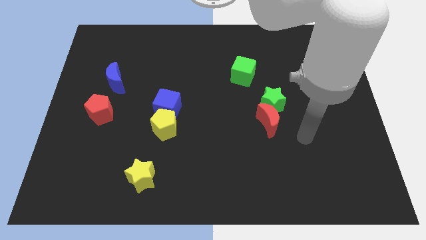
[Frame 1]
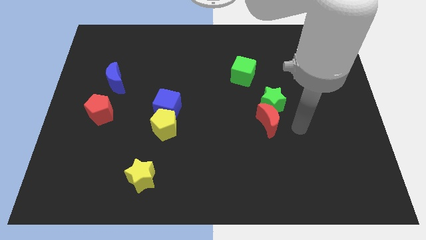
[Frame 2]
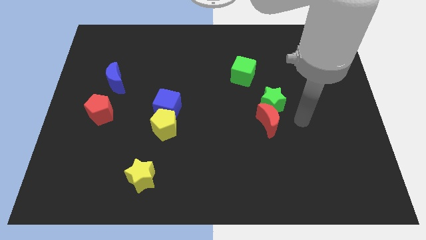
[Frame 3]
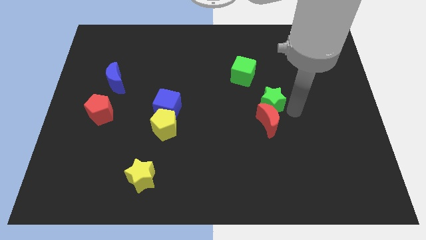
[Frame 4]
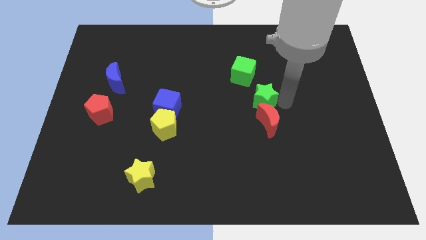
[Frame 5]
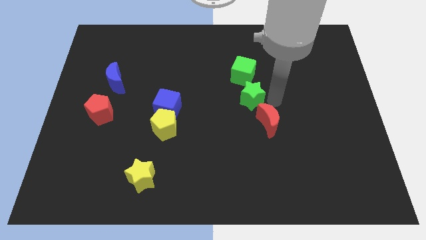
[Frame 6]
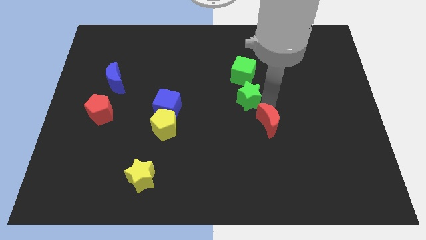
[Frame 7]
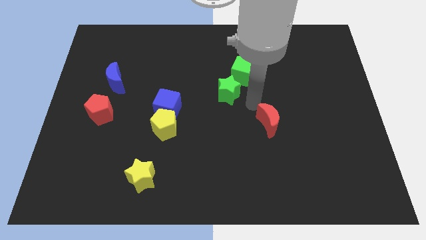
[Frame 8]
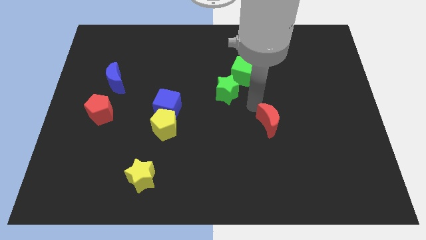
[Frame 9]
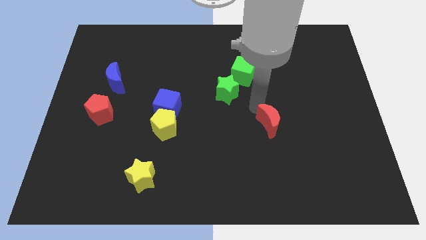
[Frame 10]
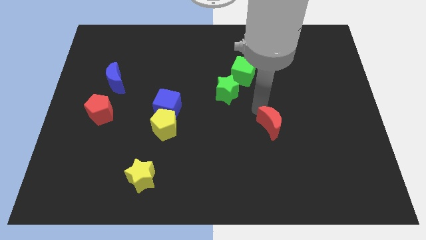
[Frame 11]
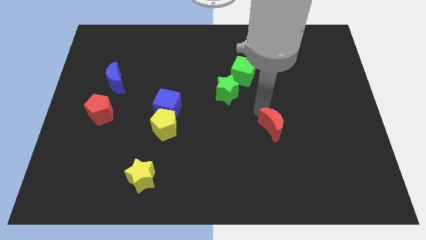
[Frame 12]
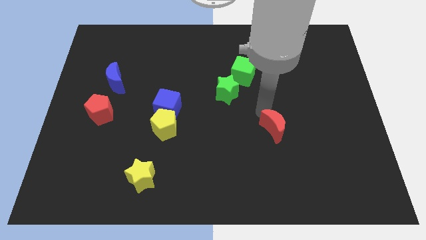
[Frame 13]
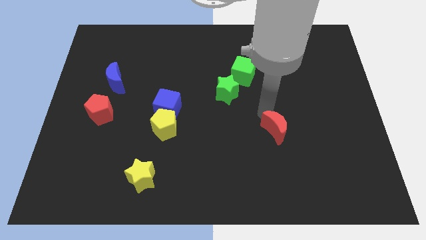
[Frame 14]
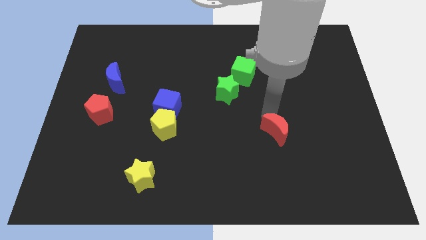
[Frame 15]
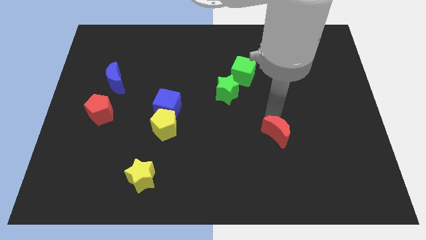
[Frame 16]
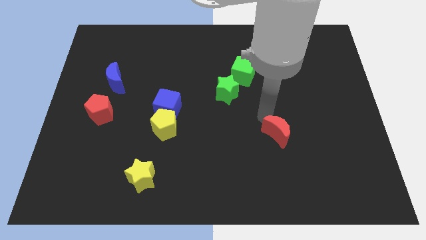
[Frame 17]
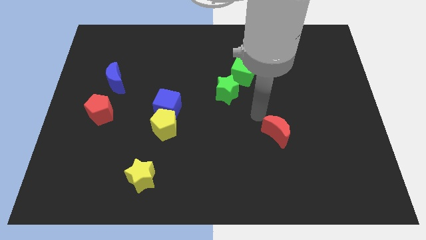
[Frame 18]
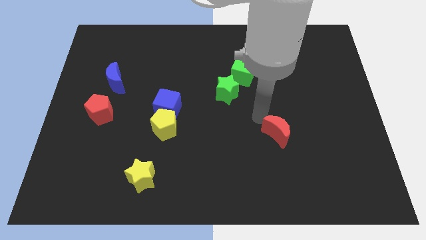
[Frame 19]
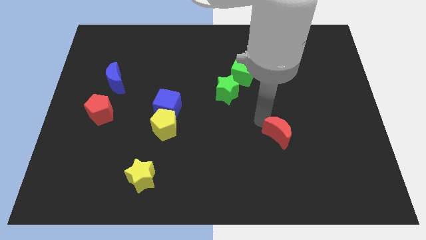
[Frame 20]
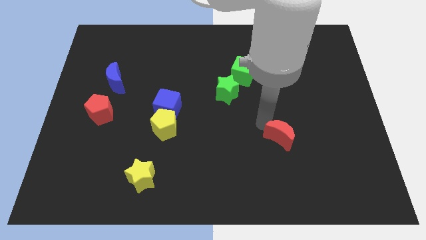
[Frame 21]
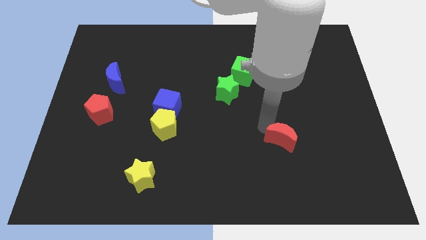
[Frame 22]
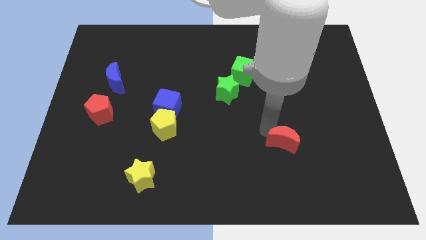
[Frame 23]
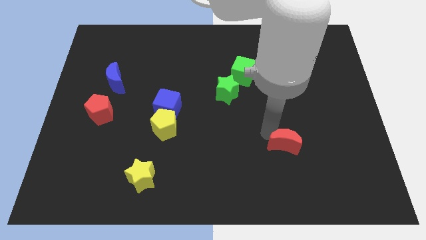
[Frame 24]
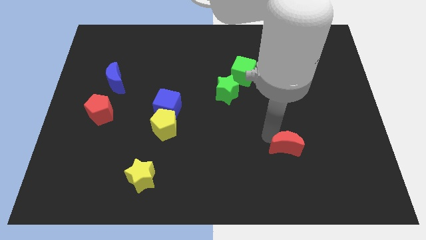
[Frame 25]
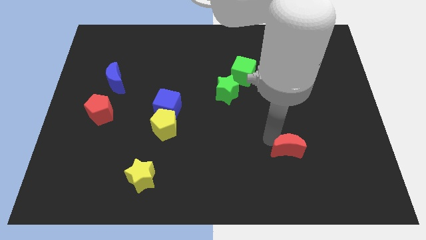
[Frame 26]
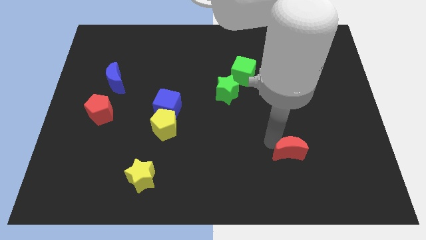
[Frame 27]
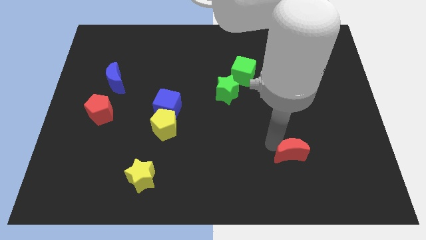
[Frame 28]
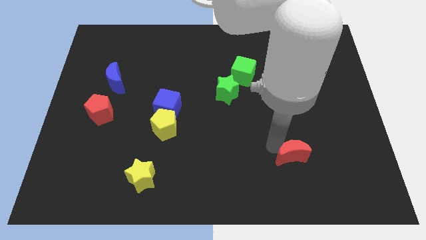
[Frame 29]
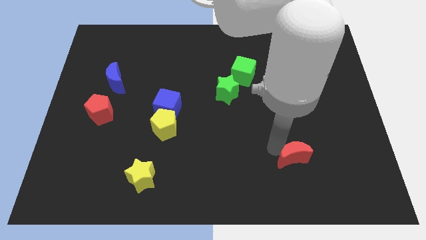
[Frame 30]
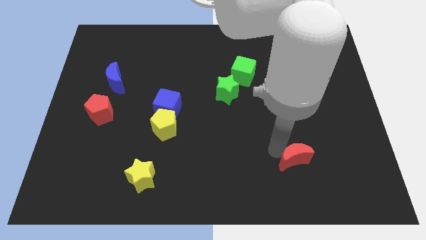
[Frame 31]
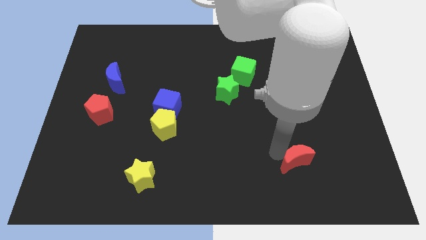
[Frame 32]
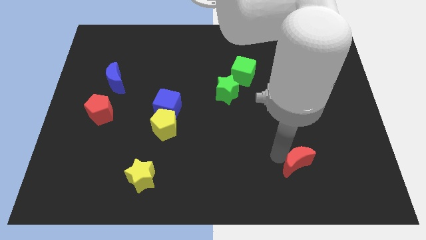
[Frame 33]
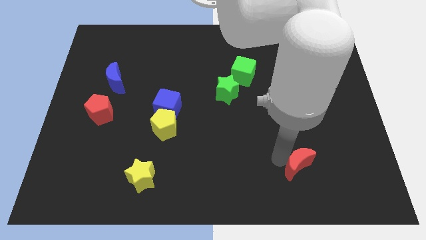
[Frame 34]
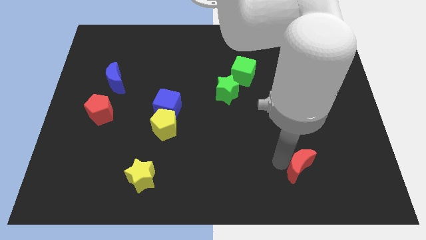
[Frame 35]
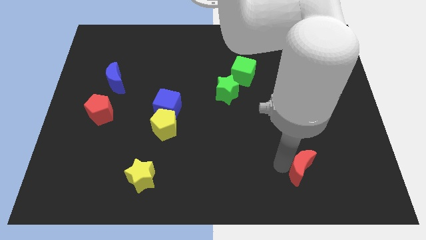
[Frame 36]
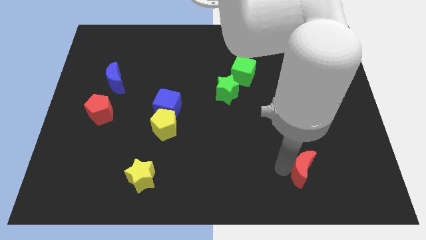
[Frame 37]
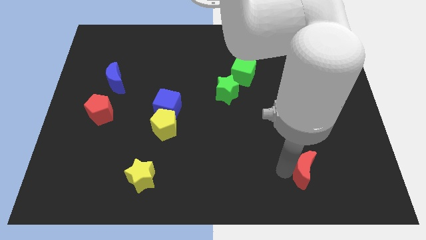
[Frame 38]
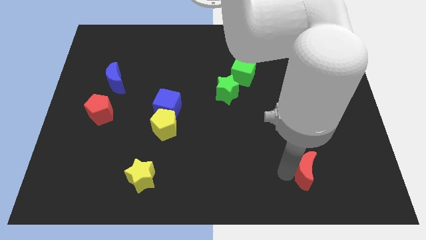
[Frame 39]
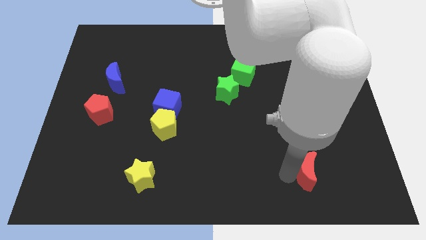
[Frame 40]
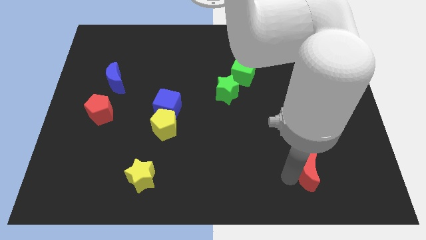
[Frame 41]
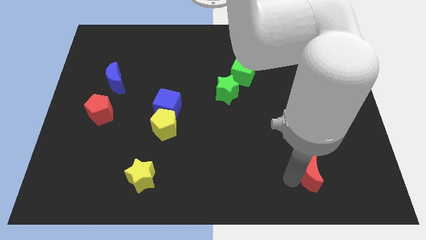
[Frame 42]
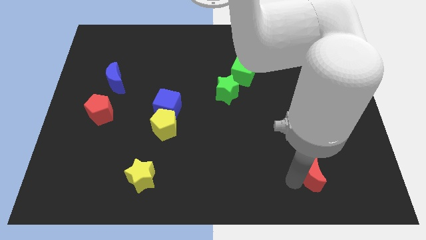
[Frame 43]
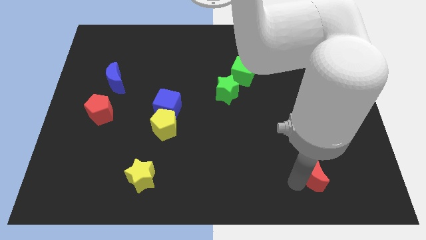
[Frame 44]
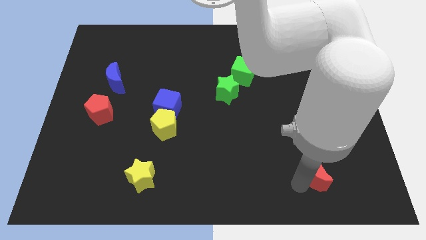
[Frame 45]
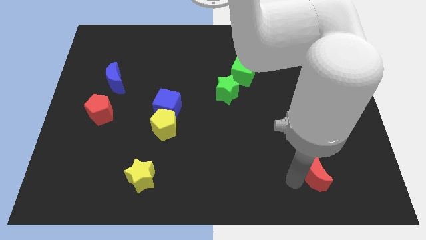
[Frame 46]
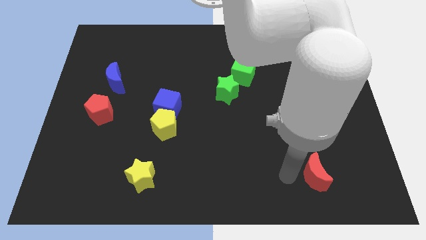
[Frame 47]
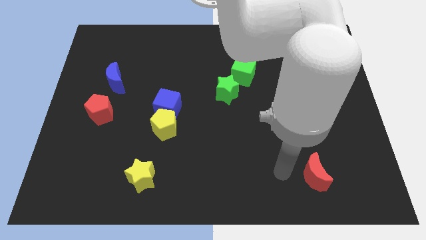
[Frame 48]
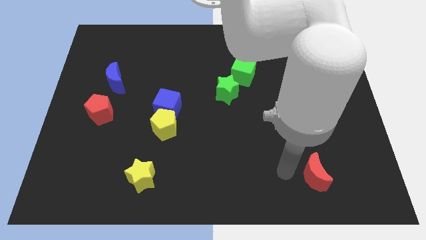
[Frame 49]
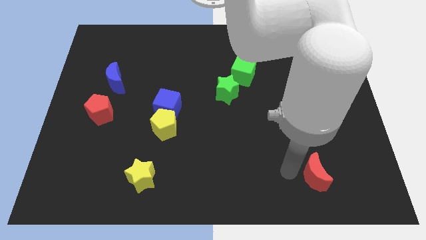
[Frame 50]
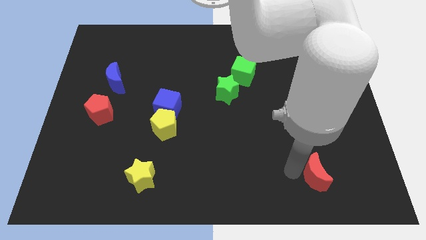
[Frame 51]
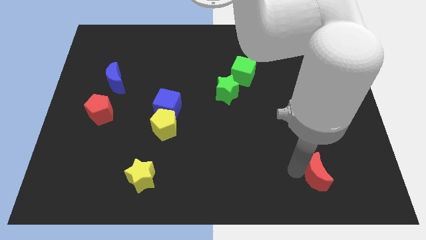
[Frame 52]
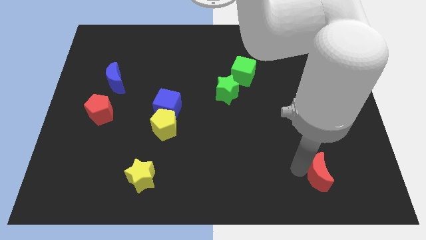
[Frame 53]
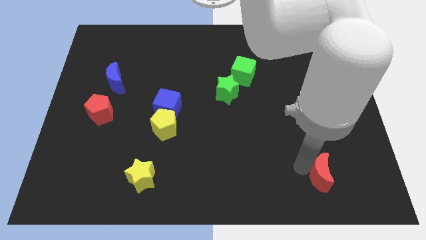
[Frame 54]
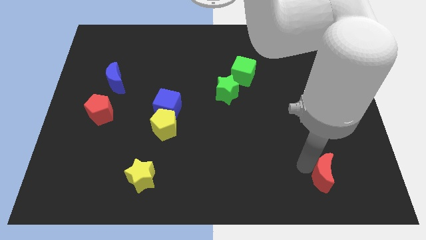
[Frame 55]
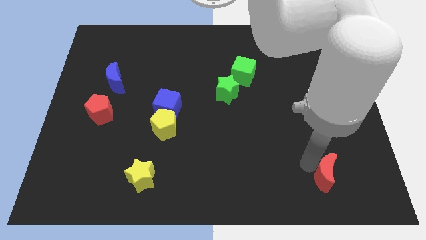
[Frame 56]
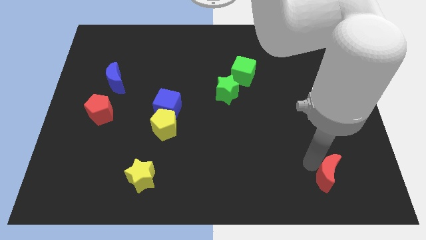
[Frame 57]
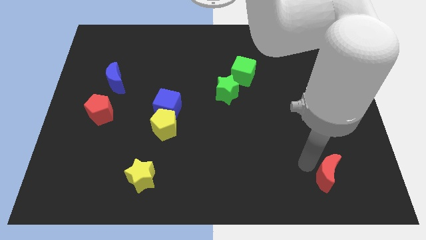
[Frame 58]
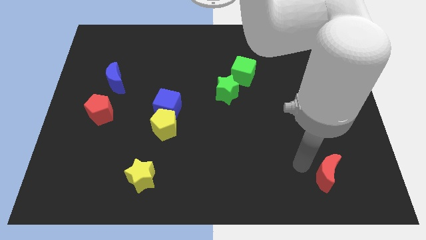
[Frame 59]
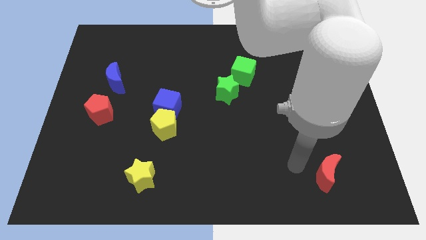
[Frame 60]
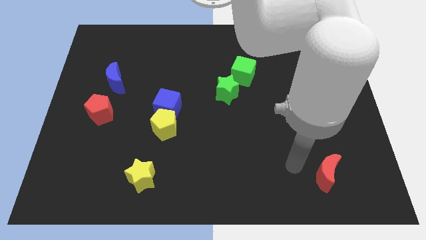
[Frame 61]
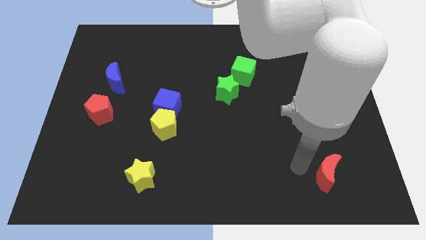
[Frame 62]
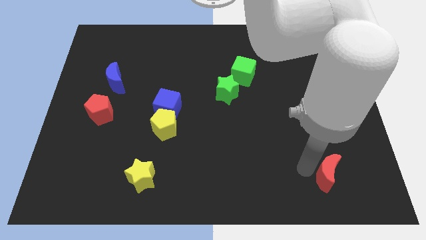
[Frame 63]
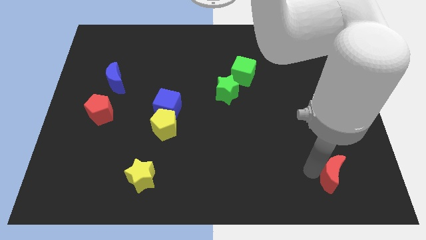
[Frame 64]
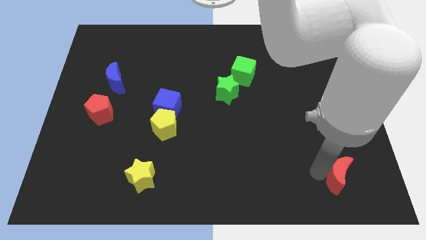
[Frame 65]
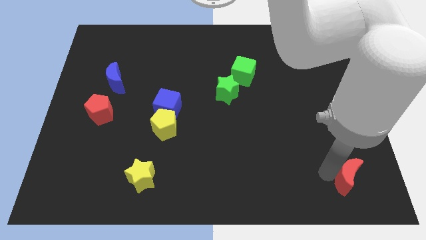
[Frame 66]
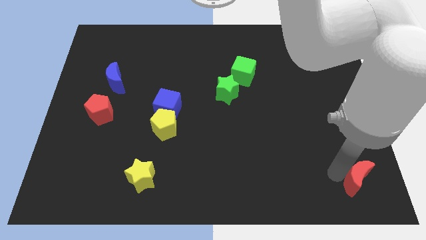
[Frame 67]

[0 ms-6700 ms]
put the red moon to the bottom right

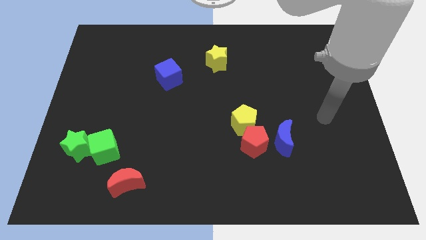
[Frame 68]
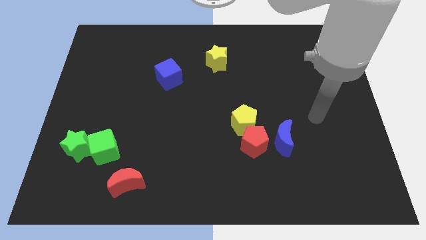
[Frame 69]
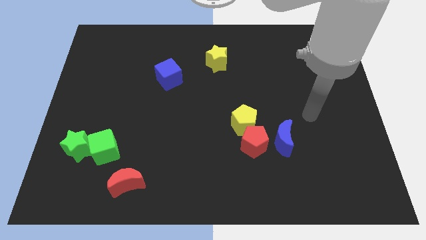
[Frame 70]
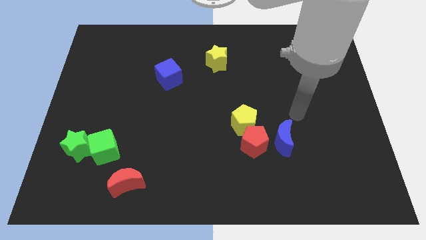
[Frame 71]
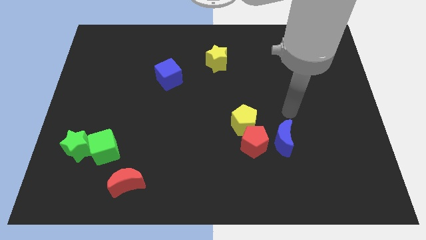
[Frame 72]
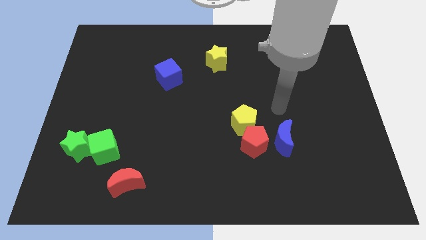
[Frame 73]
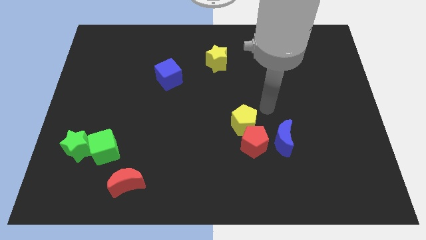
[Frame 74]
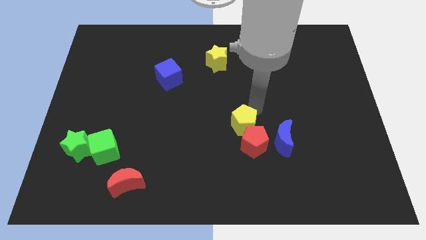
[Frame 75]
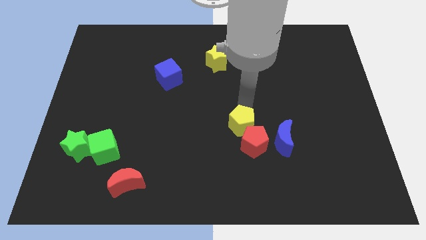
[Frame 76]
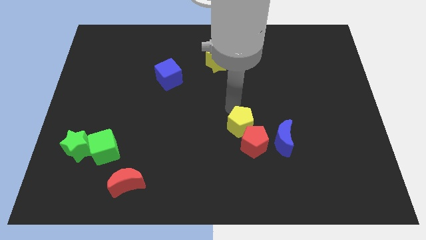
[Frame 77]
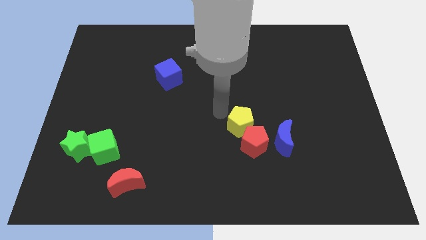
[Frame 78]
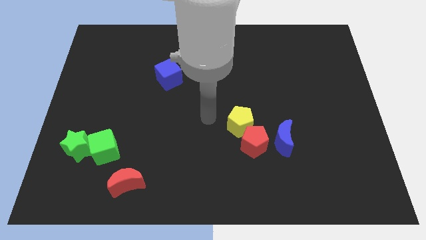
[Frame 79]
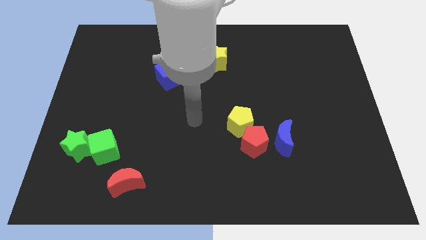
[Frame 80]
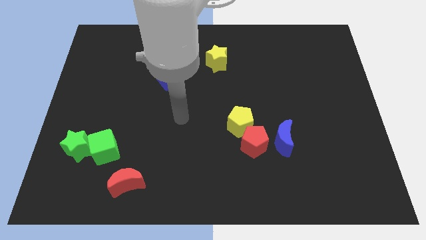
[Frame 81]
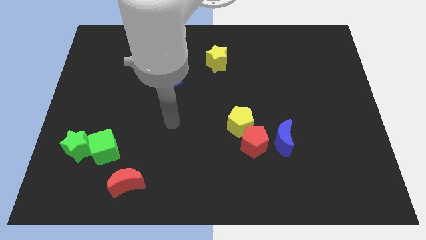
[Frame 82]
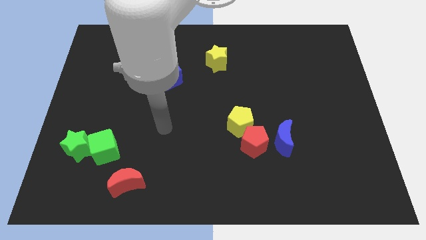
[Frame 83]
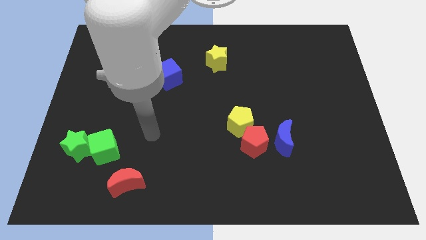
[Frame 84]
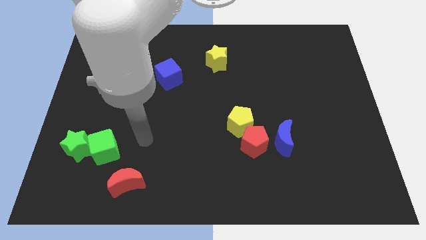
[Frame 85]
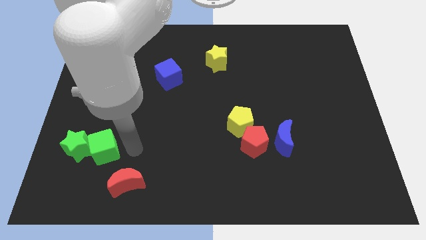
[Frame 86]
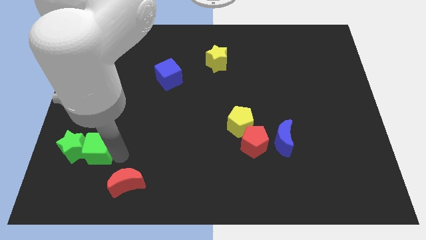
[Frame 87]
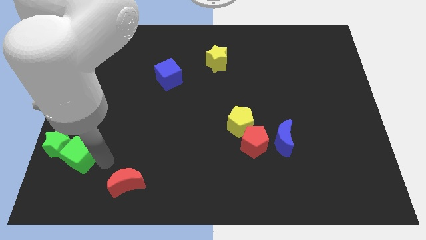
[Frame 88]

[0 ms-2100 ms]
put the green star to the left side of the board
